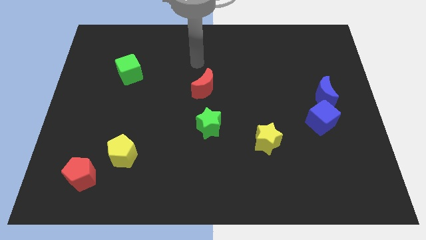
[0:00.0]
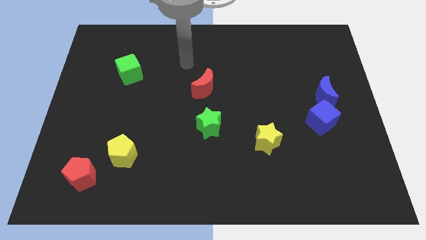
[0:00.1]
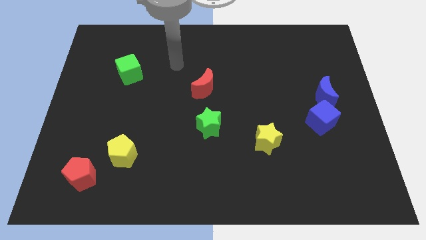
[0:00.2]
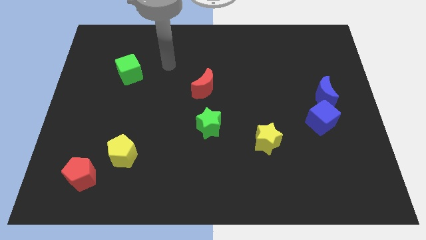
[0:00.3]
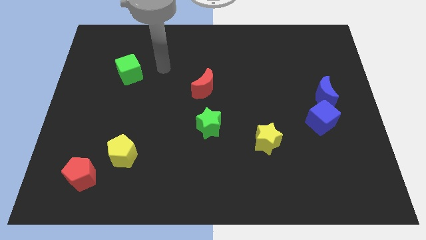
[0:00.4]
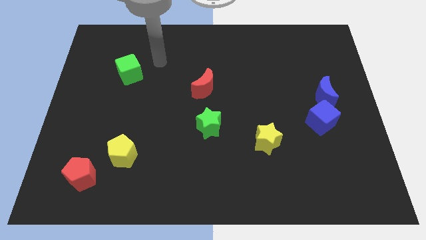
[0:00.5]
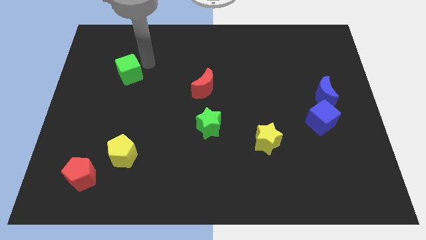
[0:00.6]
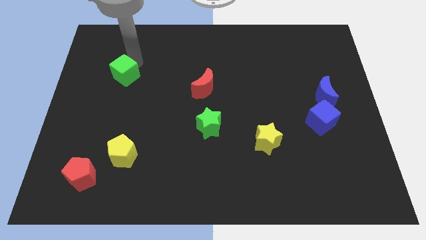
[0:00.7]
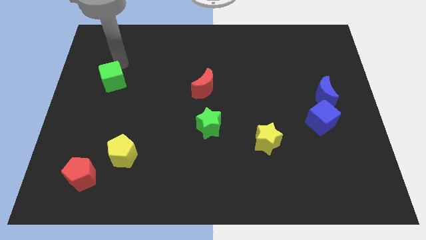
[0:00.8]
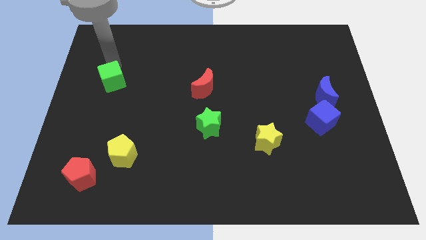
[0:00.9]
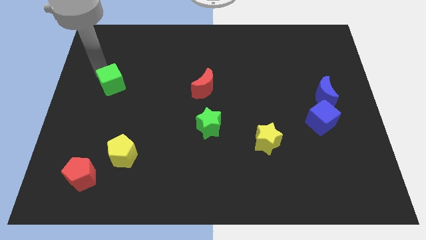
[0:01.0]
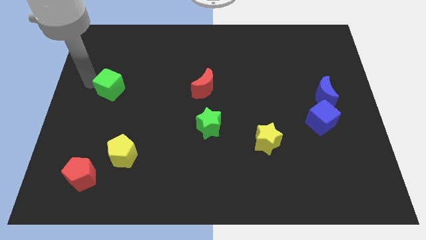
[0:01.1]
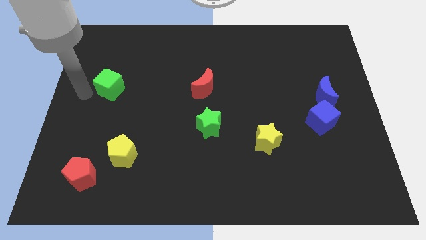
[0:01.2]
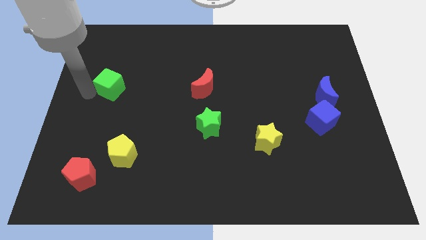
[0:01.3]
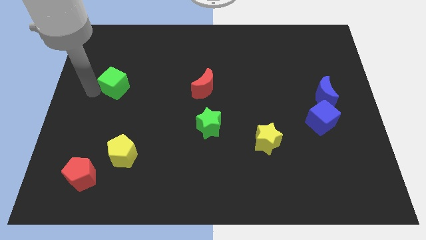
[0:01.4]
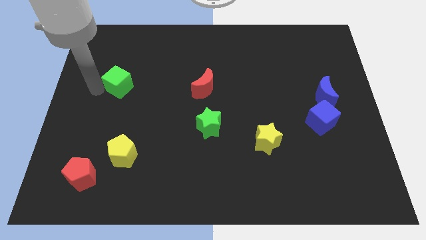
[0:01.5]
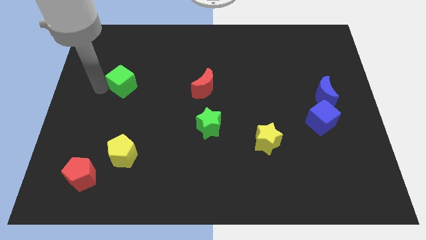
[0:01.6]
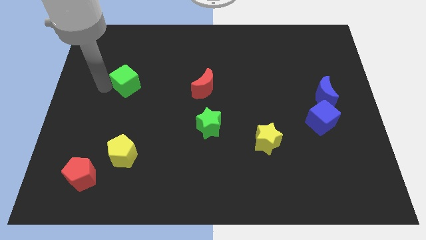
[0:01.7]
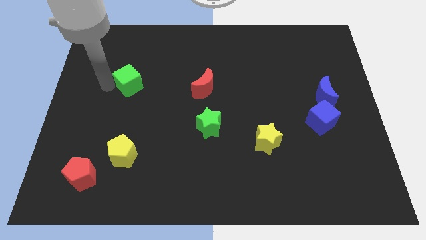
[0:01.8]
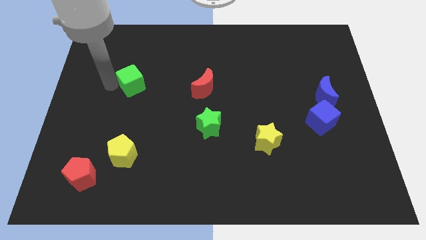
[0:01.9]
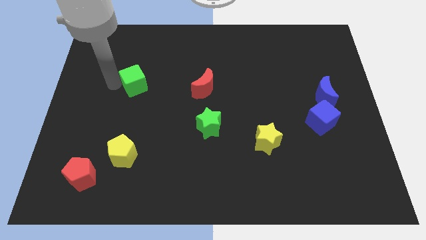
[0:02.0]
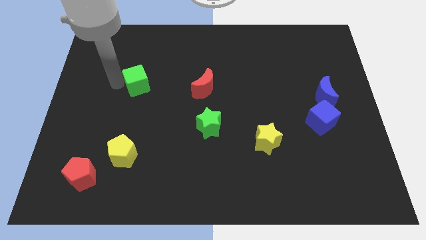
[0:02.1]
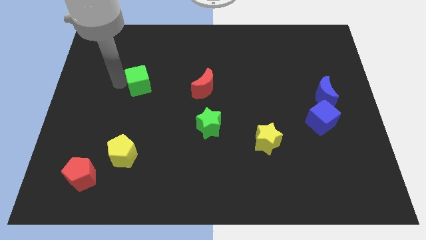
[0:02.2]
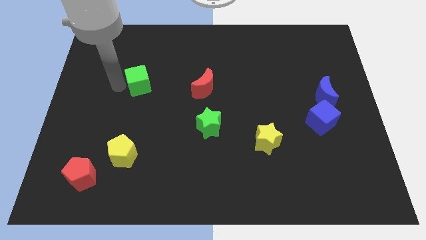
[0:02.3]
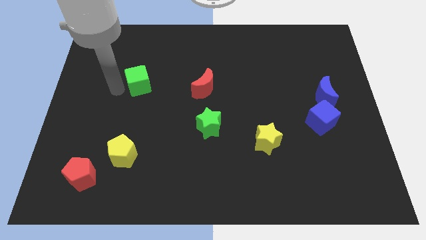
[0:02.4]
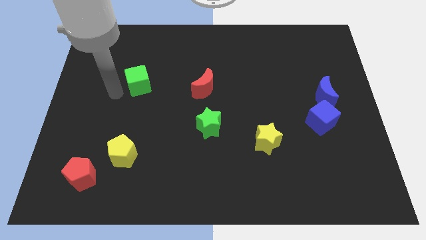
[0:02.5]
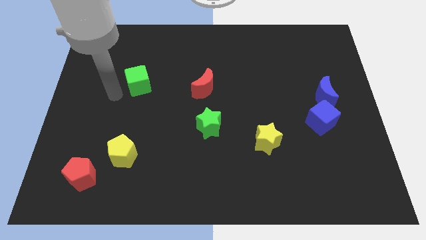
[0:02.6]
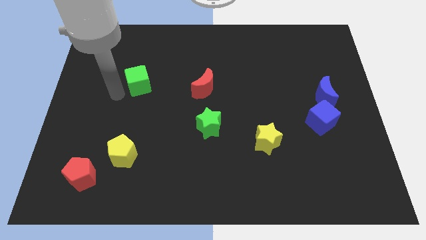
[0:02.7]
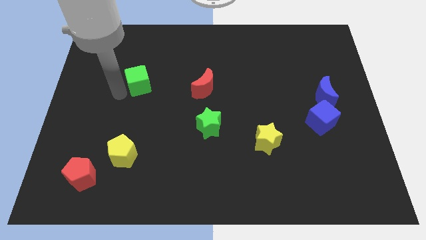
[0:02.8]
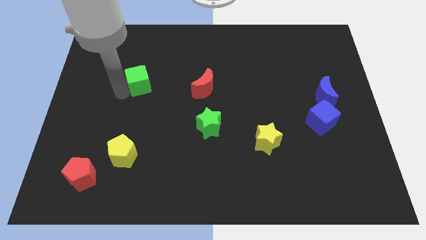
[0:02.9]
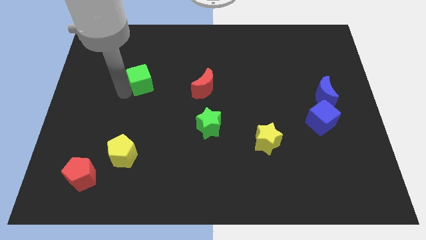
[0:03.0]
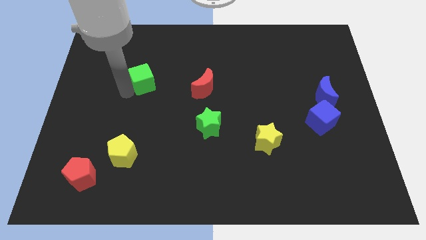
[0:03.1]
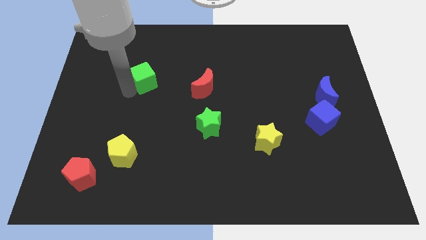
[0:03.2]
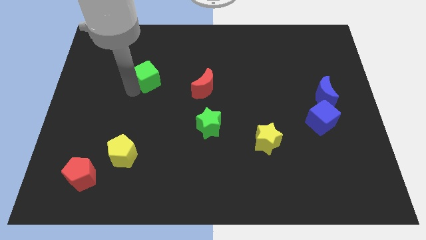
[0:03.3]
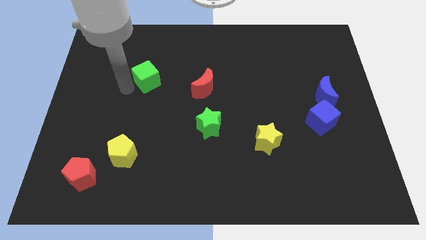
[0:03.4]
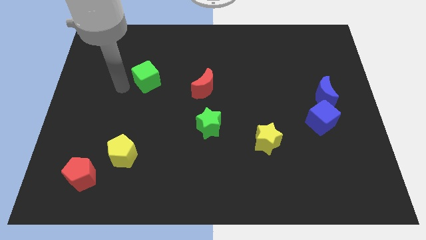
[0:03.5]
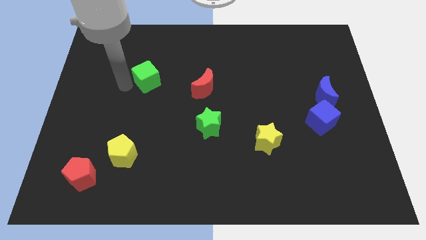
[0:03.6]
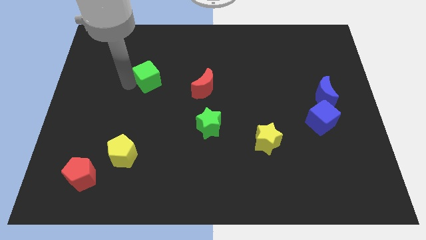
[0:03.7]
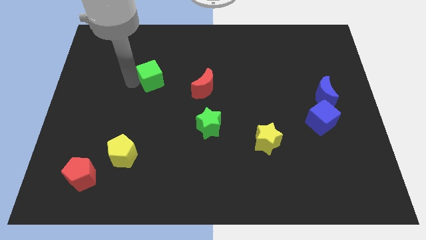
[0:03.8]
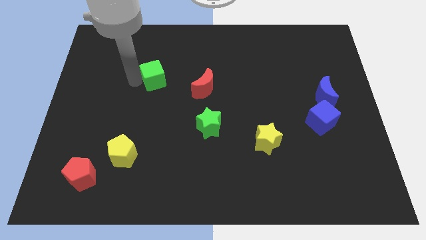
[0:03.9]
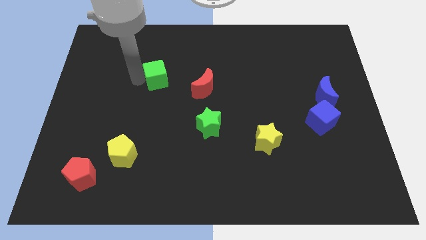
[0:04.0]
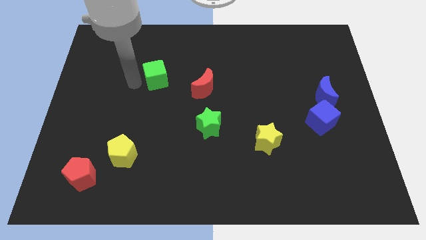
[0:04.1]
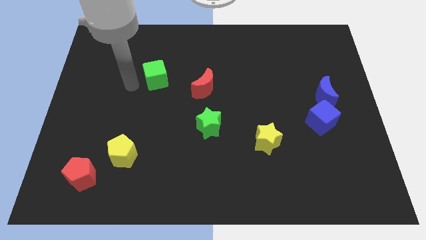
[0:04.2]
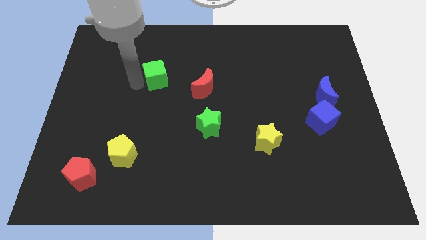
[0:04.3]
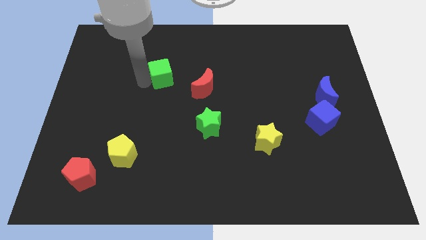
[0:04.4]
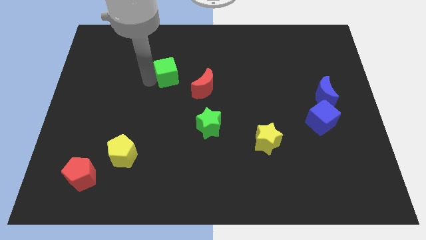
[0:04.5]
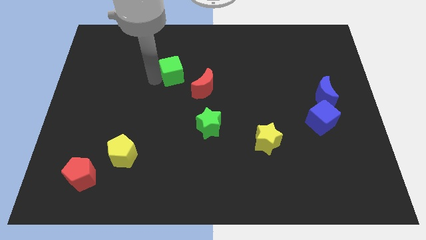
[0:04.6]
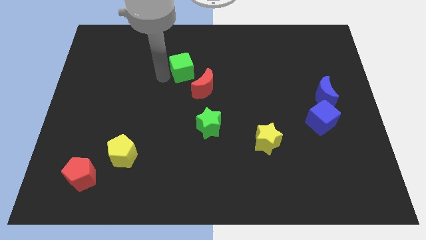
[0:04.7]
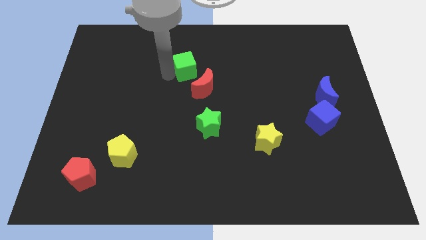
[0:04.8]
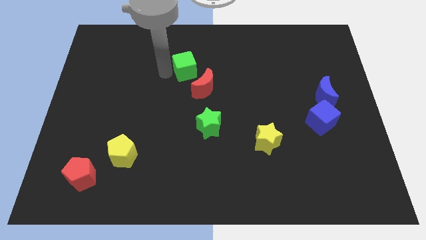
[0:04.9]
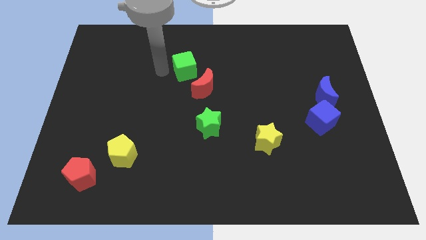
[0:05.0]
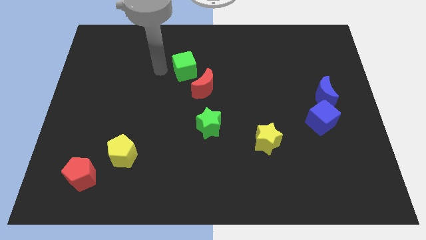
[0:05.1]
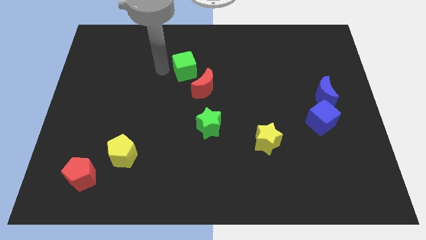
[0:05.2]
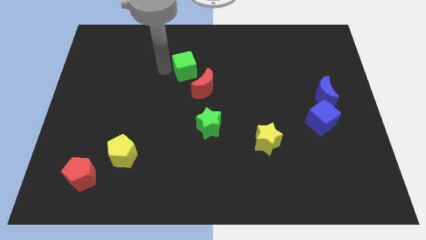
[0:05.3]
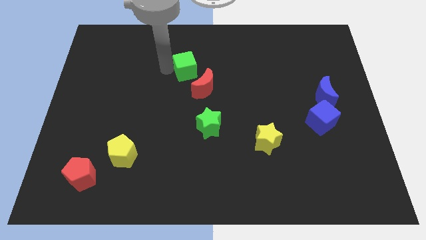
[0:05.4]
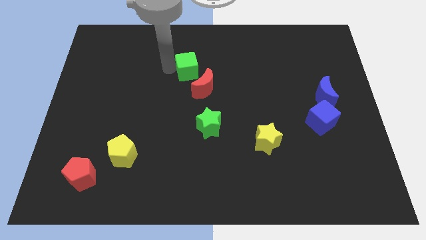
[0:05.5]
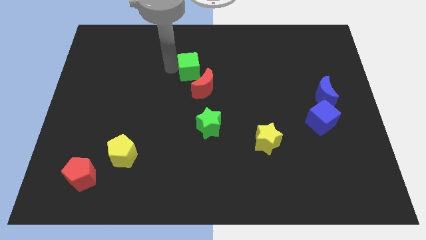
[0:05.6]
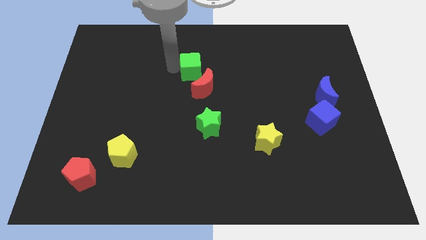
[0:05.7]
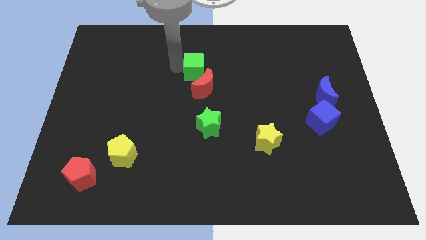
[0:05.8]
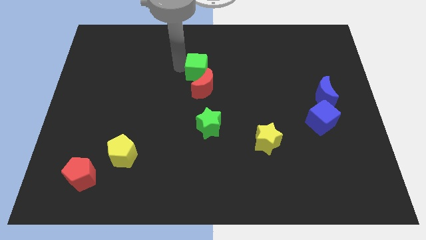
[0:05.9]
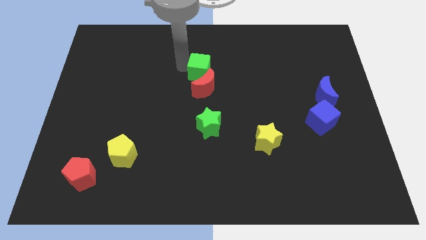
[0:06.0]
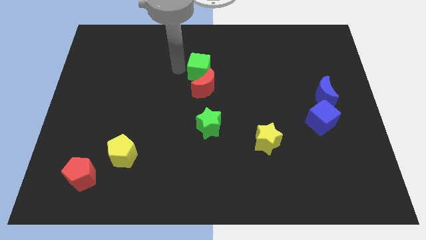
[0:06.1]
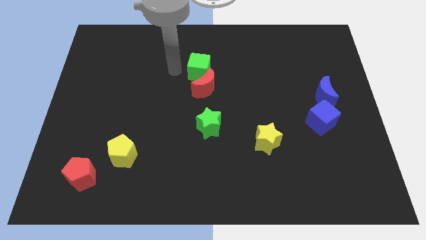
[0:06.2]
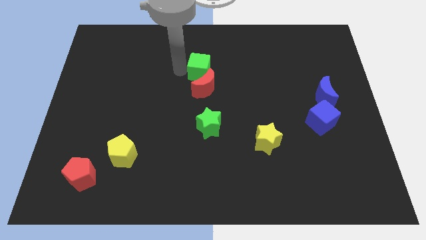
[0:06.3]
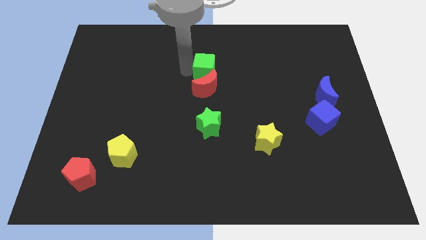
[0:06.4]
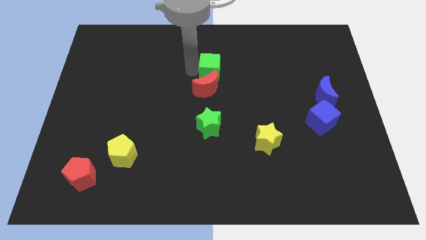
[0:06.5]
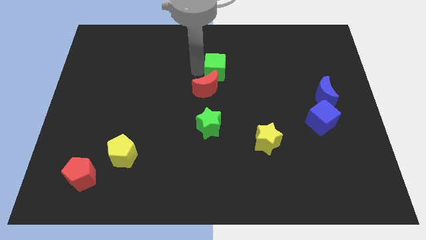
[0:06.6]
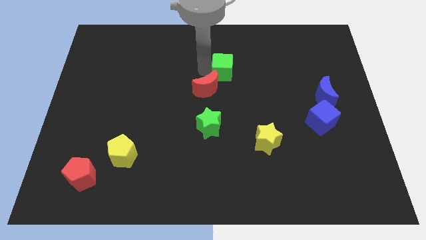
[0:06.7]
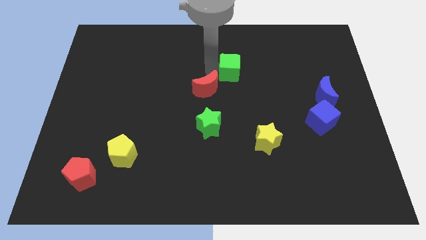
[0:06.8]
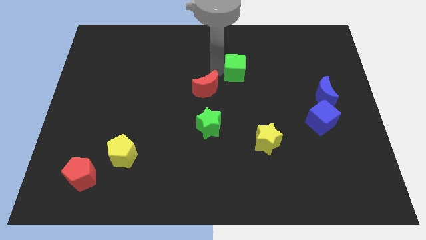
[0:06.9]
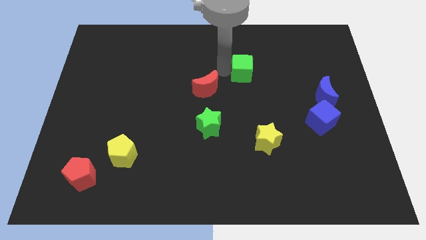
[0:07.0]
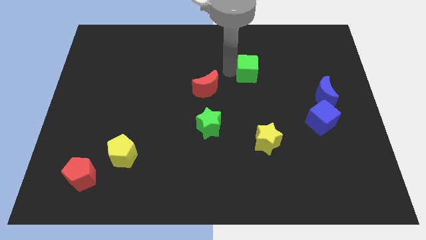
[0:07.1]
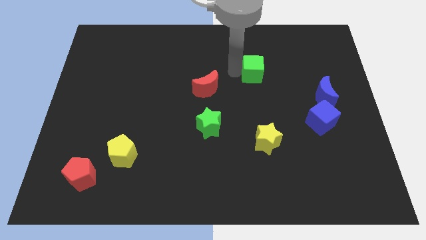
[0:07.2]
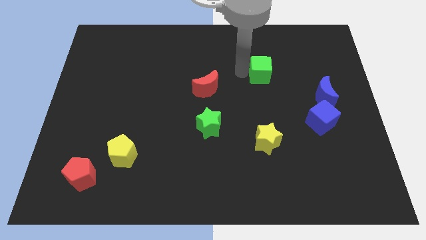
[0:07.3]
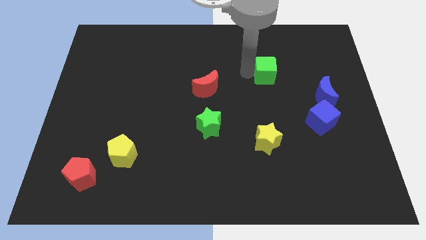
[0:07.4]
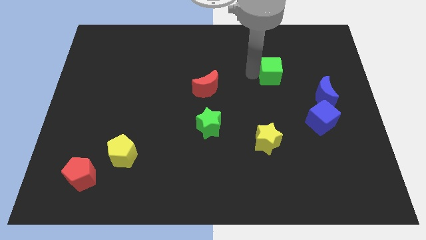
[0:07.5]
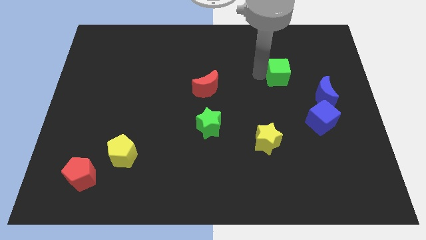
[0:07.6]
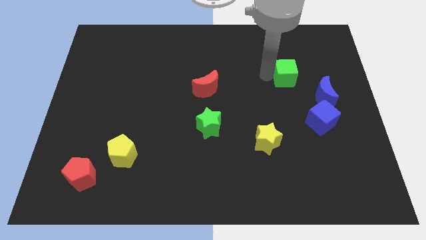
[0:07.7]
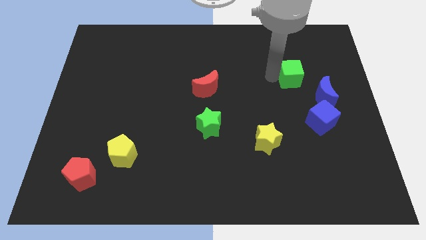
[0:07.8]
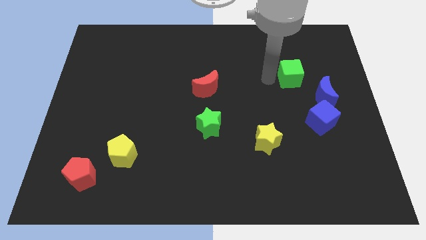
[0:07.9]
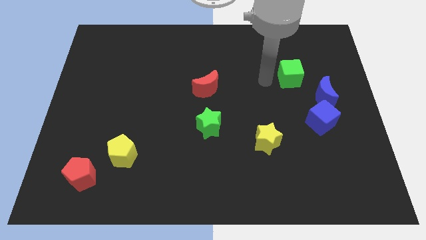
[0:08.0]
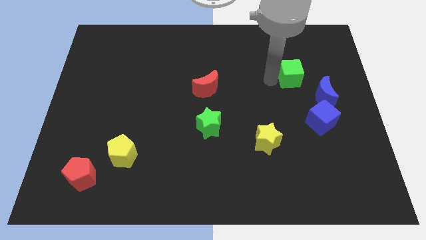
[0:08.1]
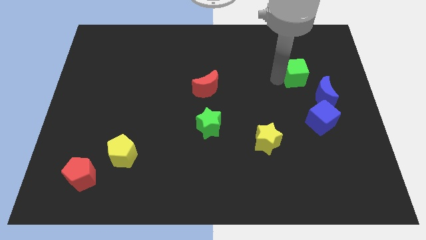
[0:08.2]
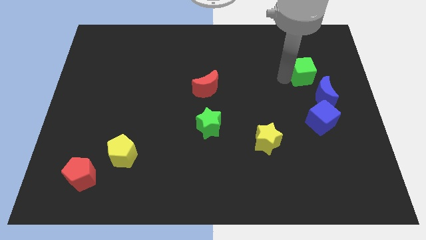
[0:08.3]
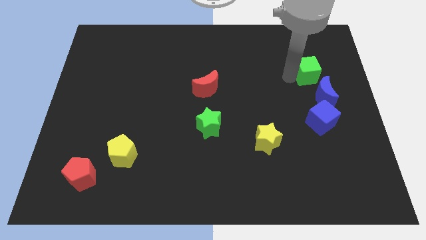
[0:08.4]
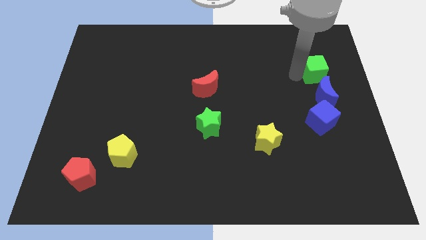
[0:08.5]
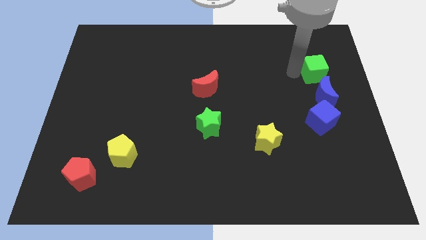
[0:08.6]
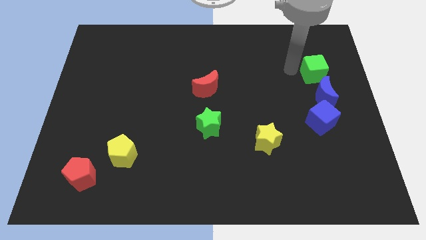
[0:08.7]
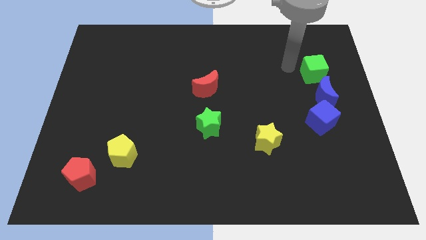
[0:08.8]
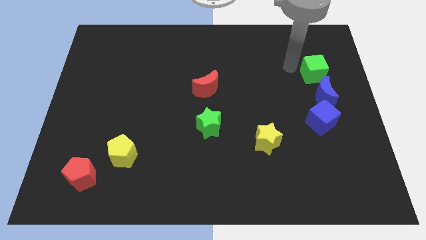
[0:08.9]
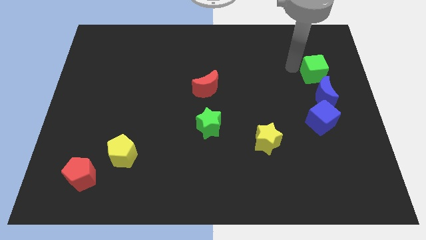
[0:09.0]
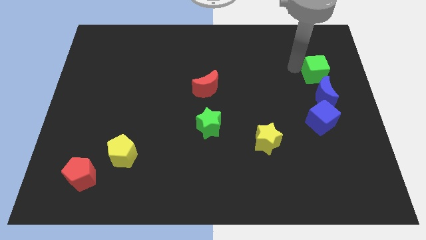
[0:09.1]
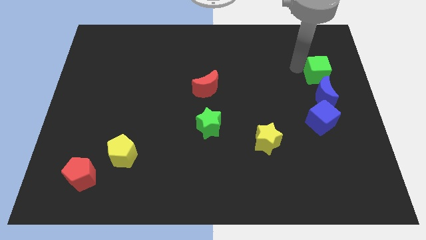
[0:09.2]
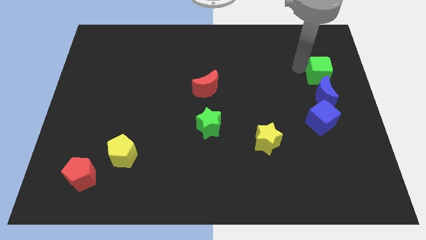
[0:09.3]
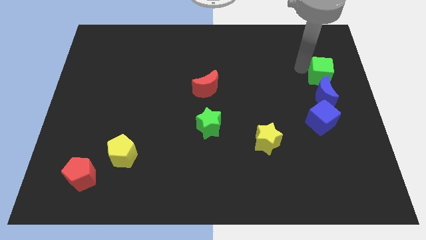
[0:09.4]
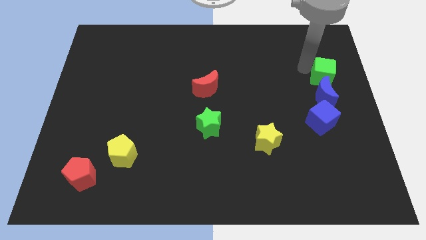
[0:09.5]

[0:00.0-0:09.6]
push the green cube to the right side of the board
